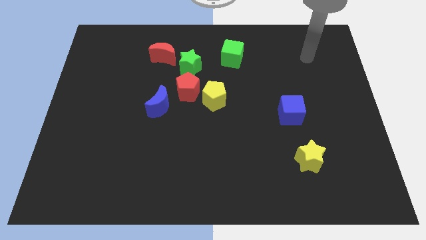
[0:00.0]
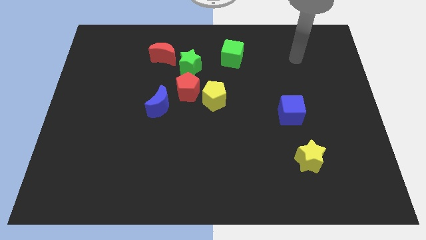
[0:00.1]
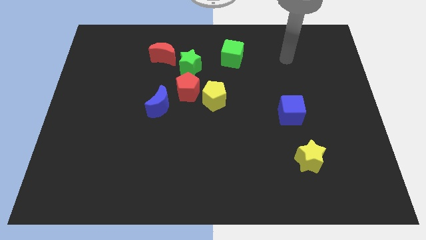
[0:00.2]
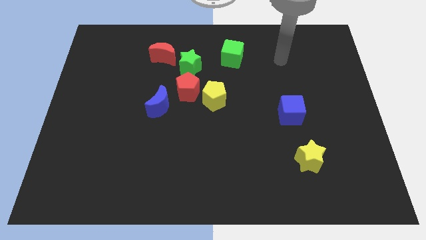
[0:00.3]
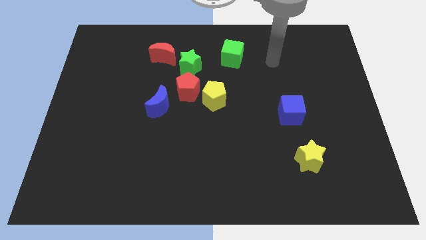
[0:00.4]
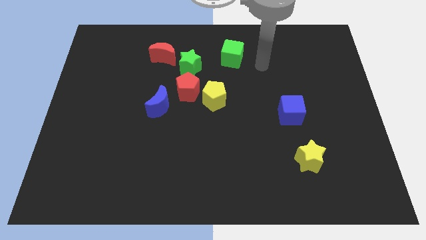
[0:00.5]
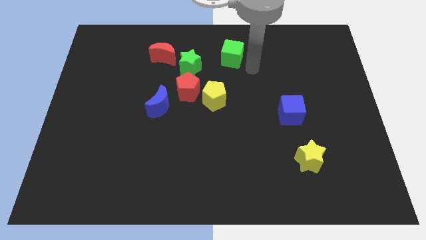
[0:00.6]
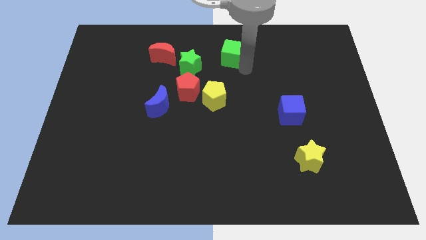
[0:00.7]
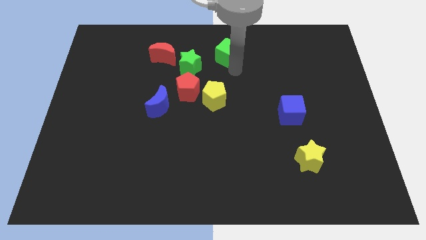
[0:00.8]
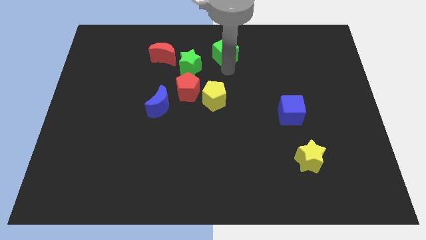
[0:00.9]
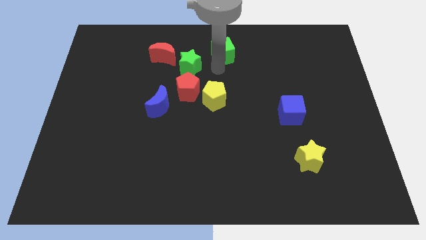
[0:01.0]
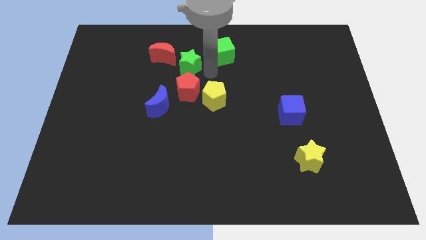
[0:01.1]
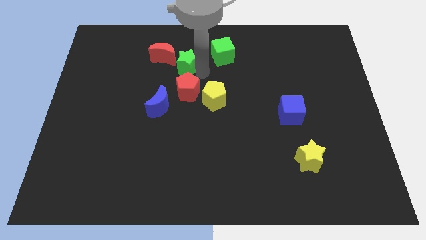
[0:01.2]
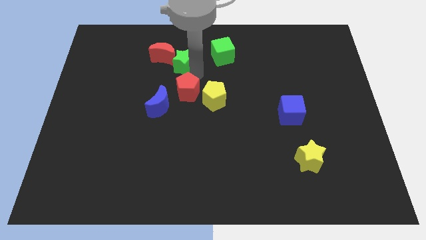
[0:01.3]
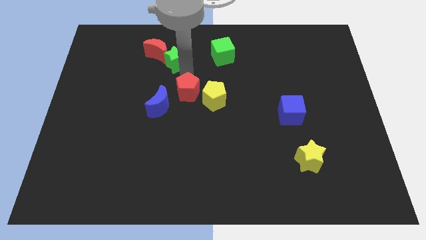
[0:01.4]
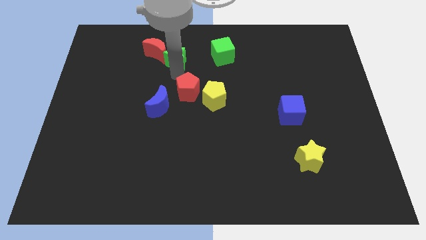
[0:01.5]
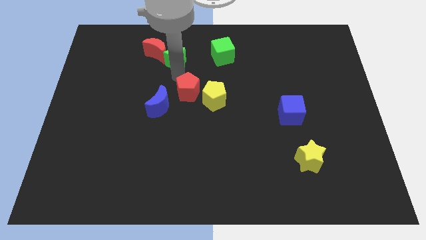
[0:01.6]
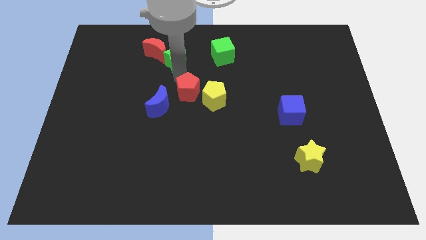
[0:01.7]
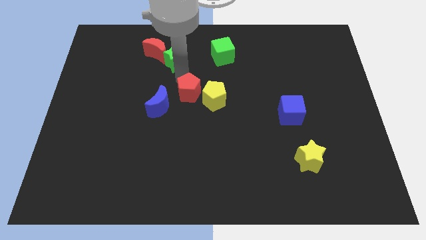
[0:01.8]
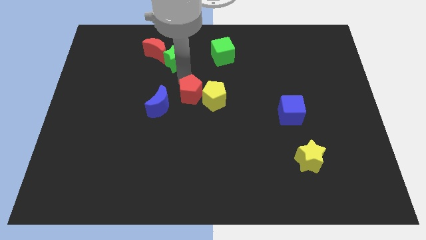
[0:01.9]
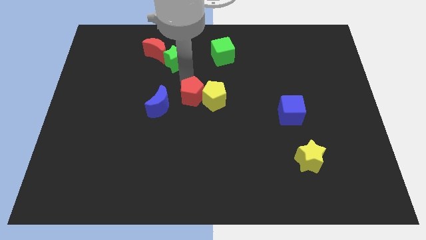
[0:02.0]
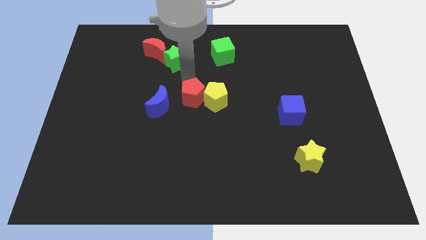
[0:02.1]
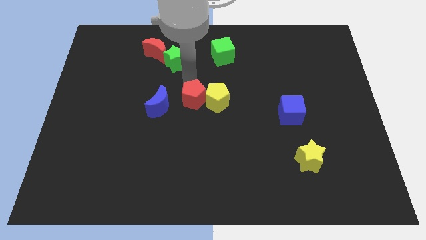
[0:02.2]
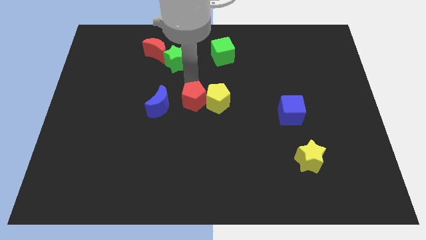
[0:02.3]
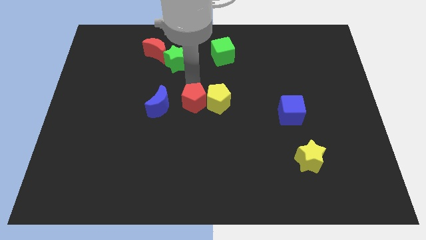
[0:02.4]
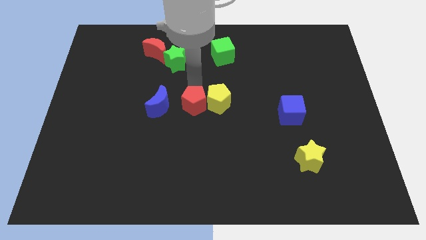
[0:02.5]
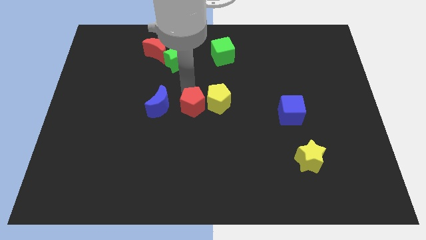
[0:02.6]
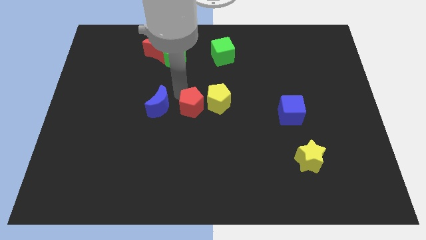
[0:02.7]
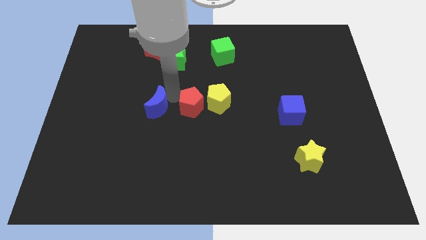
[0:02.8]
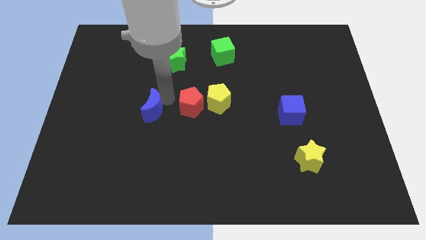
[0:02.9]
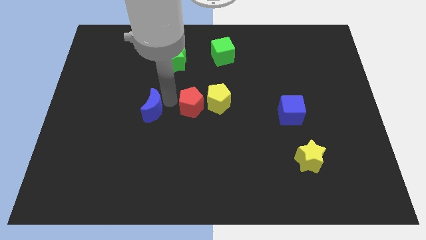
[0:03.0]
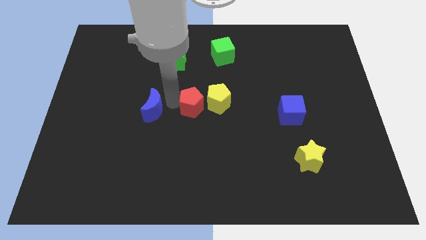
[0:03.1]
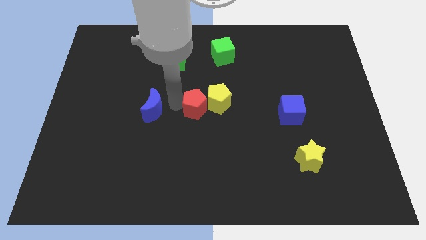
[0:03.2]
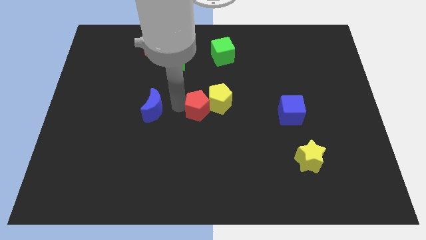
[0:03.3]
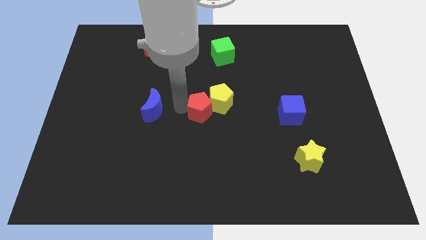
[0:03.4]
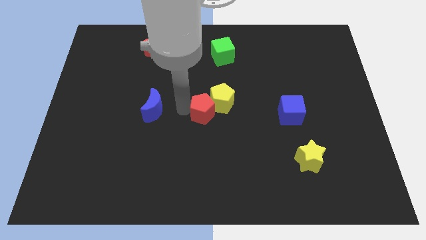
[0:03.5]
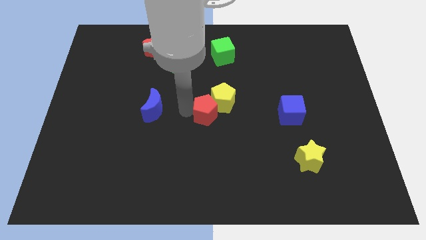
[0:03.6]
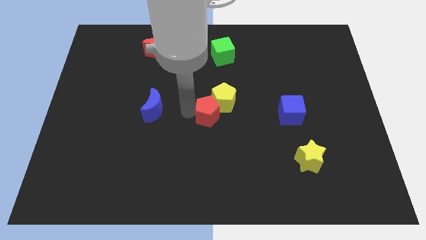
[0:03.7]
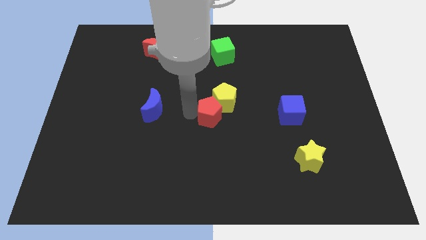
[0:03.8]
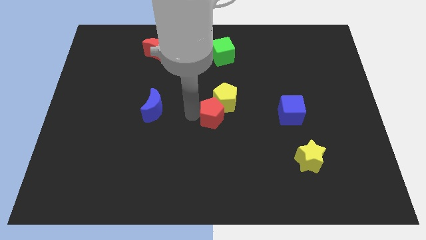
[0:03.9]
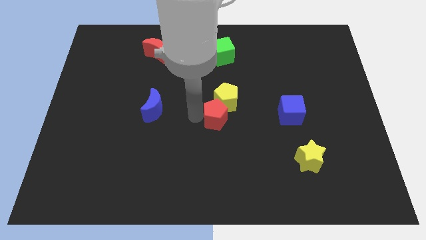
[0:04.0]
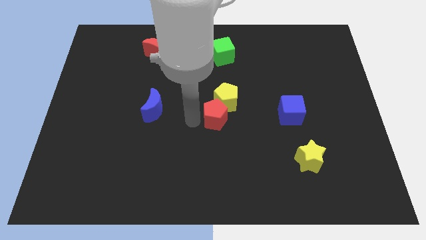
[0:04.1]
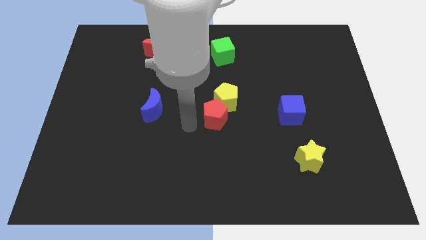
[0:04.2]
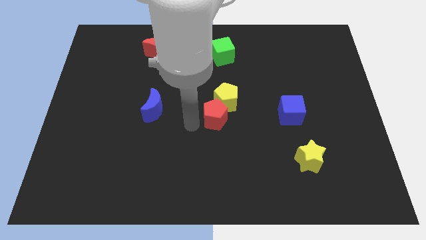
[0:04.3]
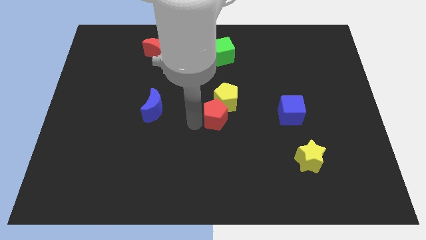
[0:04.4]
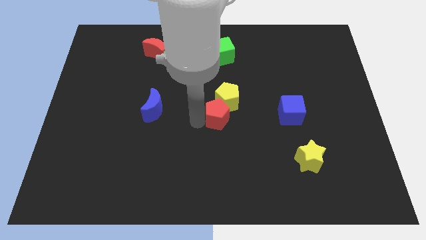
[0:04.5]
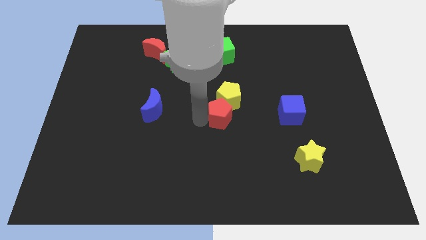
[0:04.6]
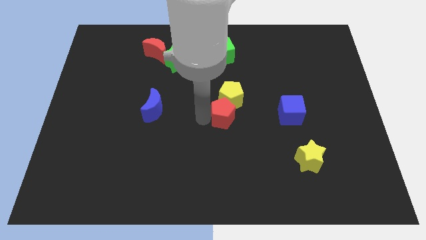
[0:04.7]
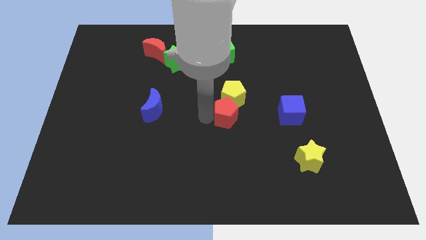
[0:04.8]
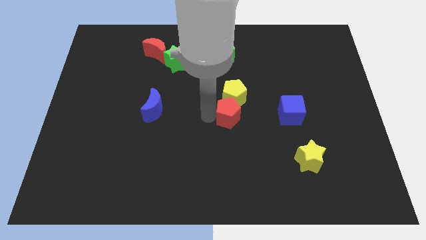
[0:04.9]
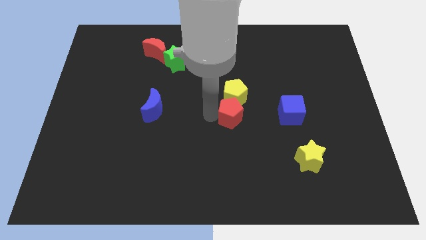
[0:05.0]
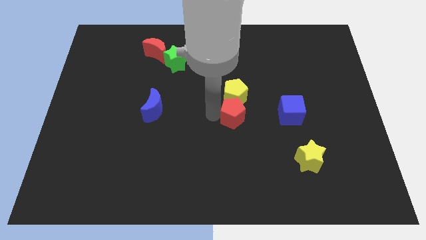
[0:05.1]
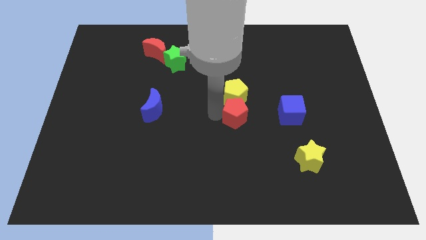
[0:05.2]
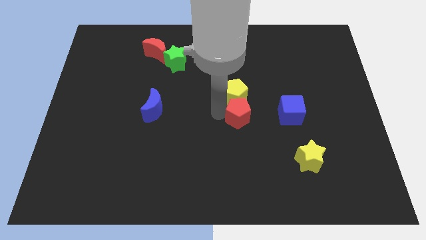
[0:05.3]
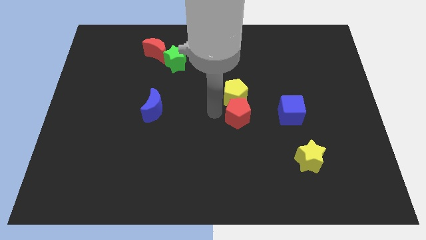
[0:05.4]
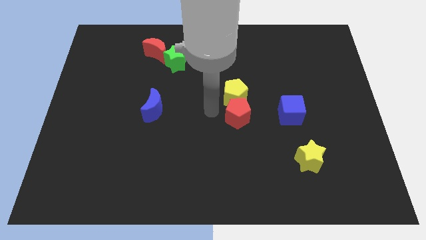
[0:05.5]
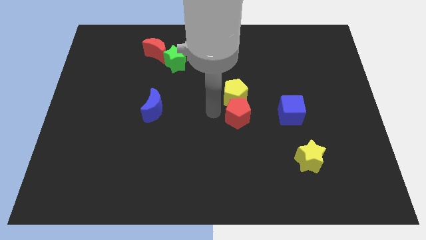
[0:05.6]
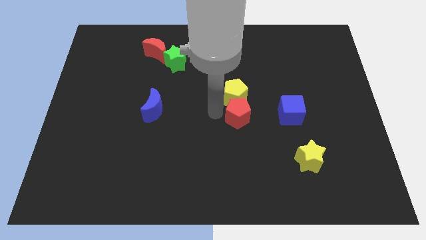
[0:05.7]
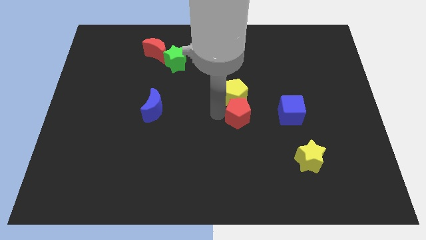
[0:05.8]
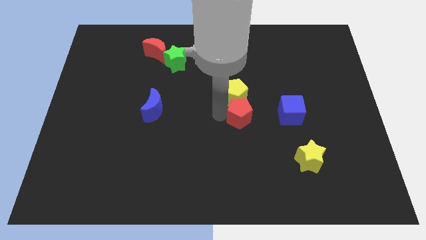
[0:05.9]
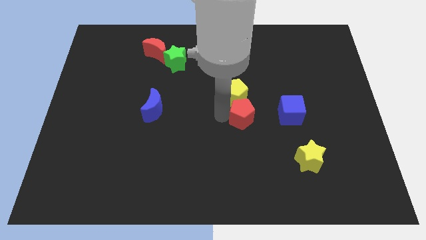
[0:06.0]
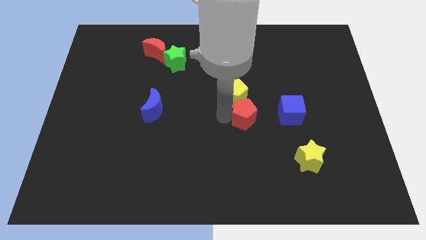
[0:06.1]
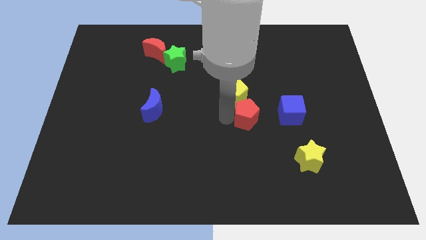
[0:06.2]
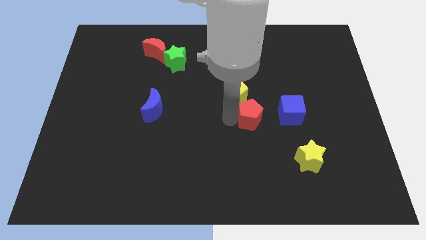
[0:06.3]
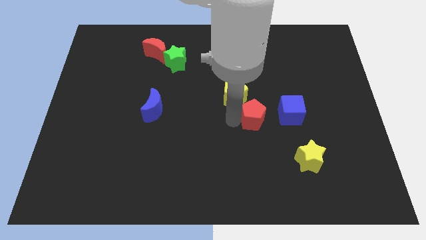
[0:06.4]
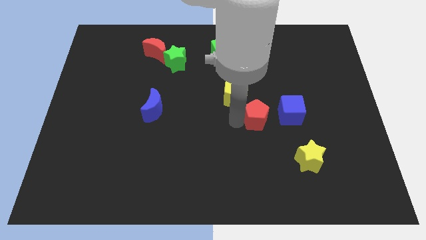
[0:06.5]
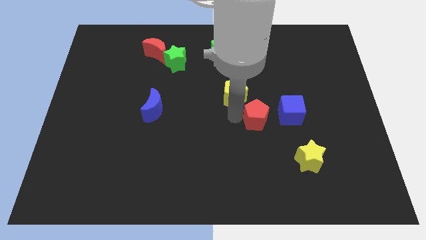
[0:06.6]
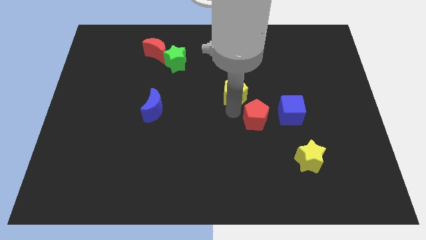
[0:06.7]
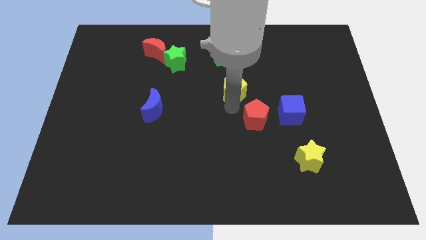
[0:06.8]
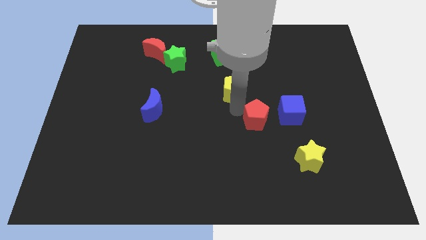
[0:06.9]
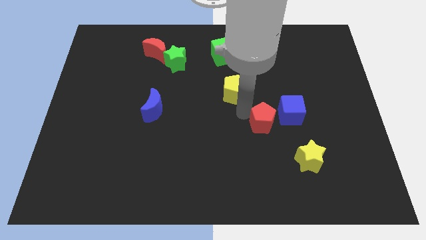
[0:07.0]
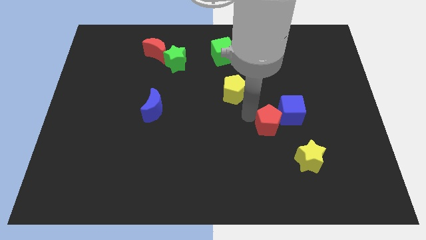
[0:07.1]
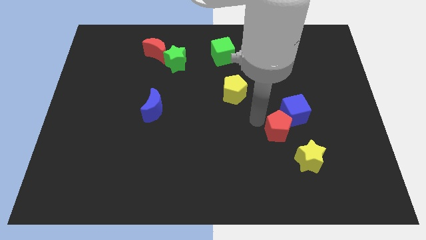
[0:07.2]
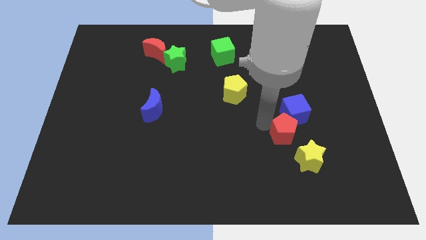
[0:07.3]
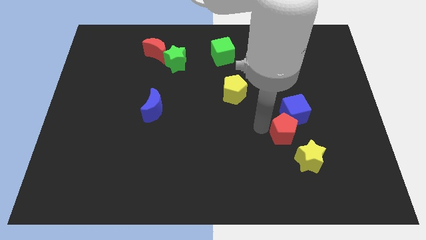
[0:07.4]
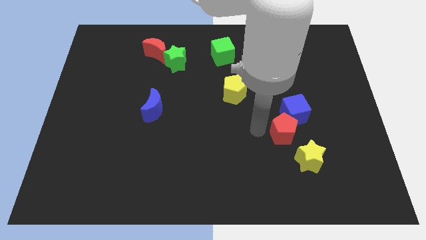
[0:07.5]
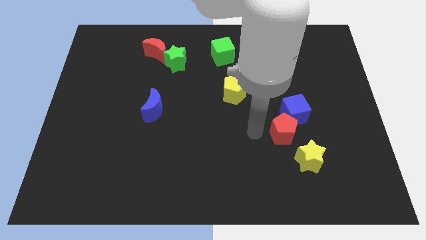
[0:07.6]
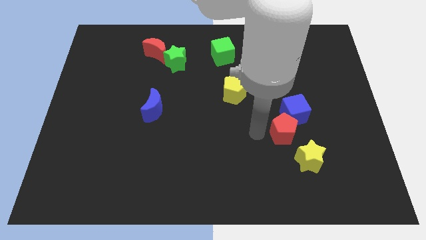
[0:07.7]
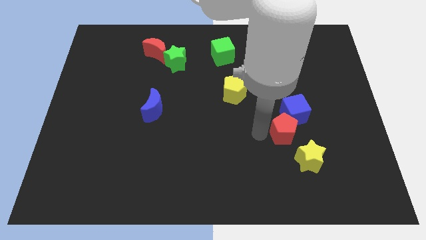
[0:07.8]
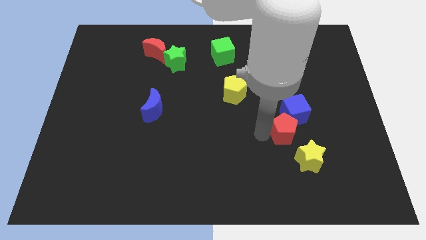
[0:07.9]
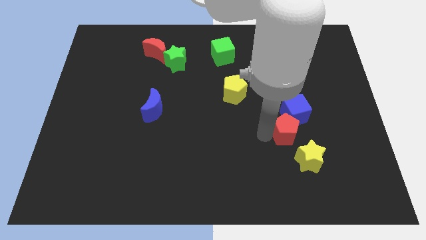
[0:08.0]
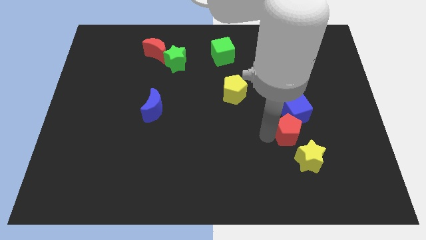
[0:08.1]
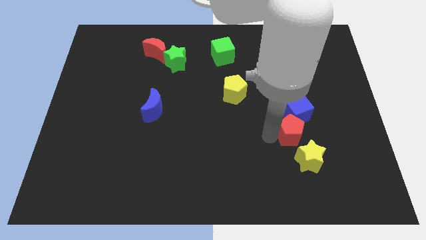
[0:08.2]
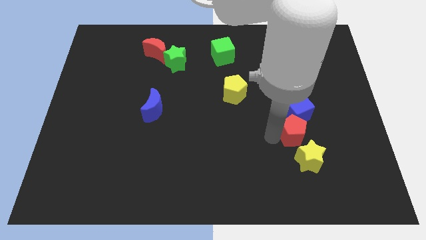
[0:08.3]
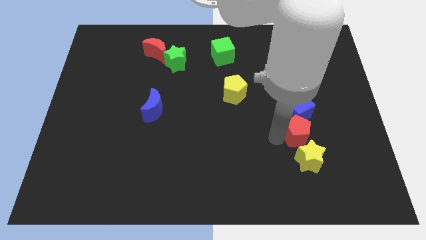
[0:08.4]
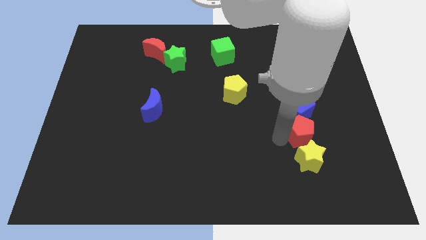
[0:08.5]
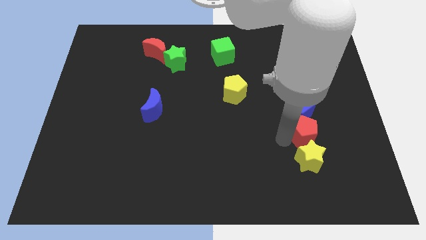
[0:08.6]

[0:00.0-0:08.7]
put the red pentagon diagonally up and to the right of the yellow star
